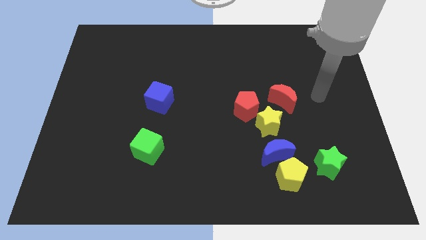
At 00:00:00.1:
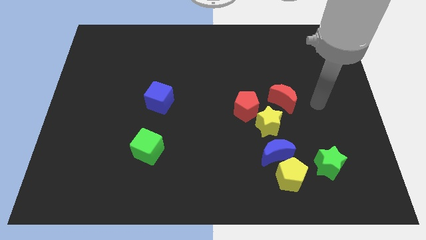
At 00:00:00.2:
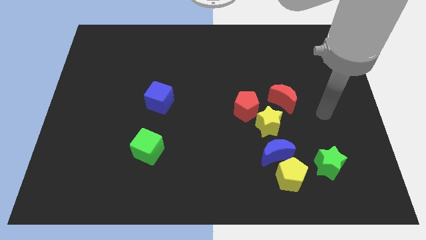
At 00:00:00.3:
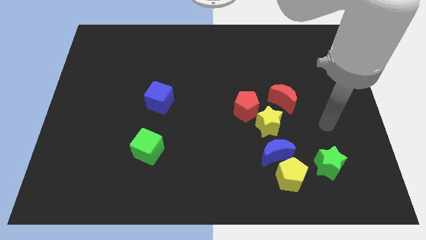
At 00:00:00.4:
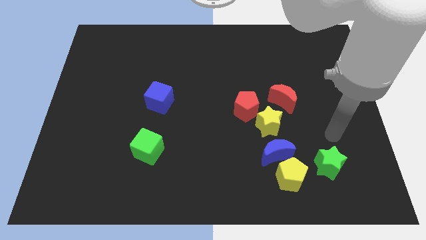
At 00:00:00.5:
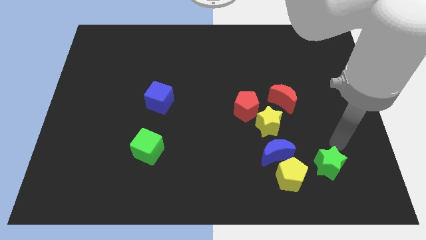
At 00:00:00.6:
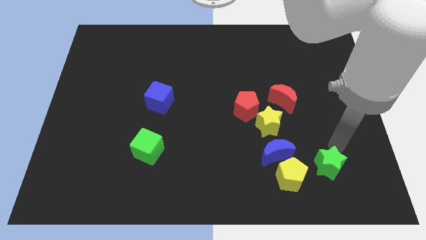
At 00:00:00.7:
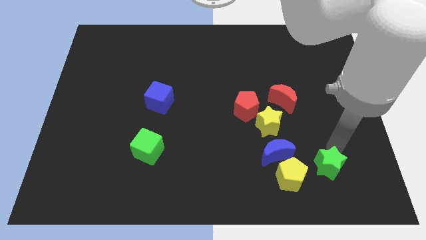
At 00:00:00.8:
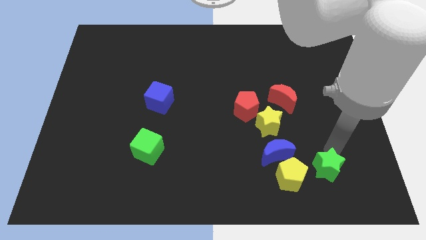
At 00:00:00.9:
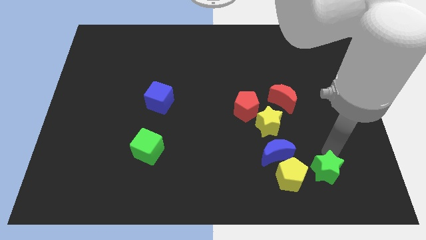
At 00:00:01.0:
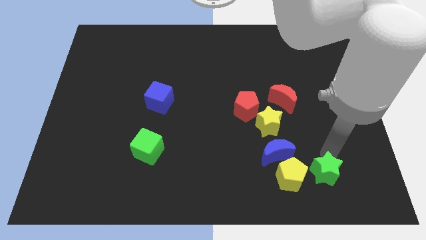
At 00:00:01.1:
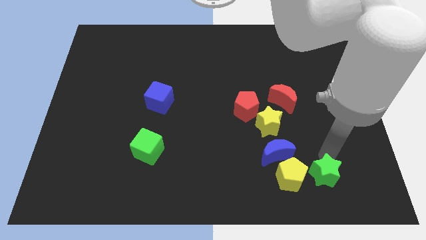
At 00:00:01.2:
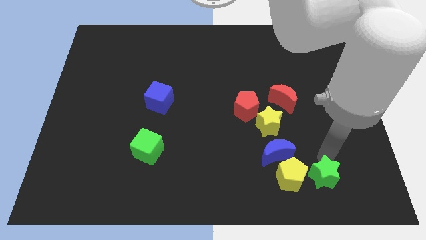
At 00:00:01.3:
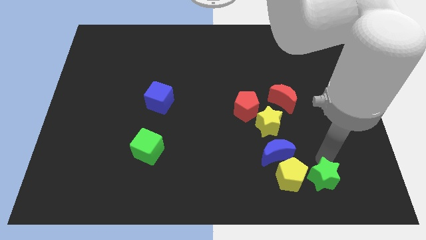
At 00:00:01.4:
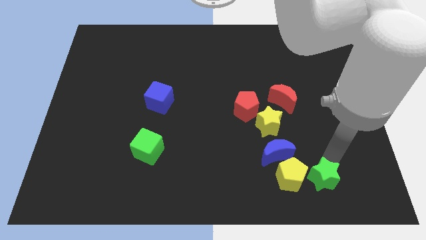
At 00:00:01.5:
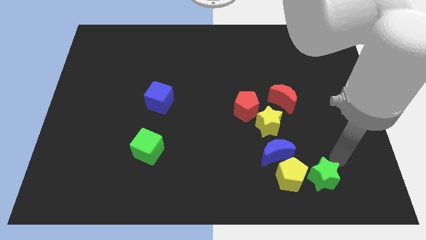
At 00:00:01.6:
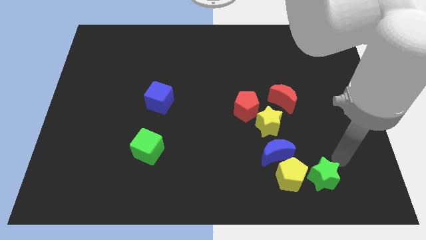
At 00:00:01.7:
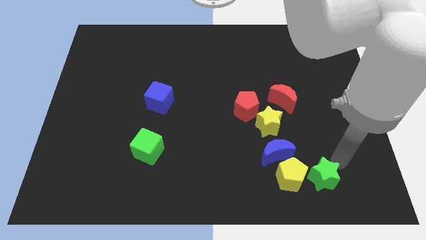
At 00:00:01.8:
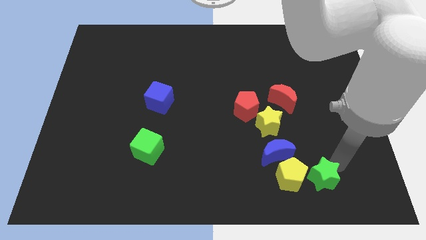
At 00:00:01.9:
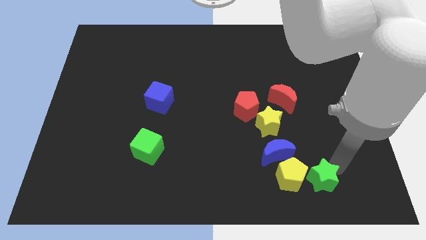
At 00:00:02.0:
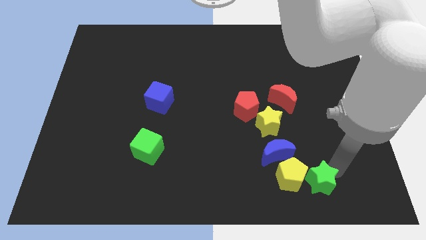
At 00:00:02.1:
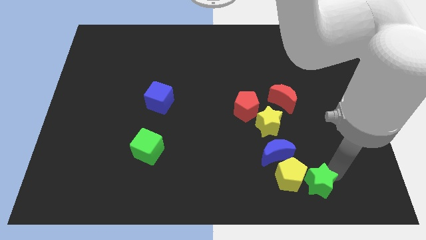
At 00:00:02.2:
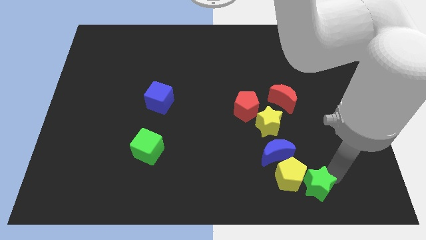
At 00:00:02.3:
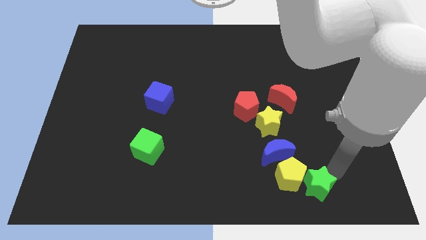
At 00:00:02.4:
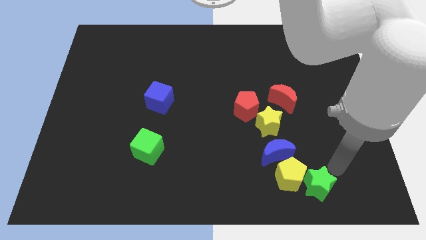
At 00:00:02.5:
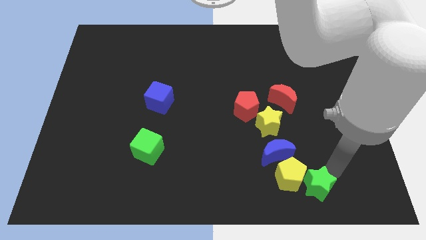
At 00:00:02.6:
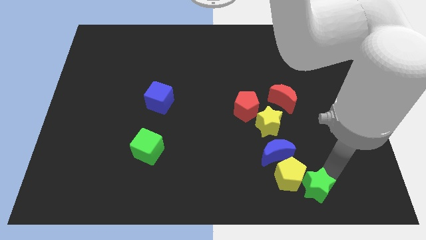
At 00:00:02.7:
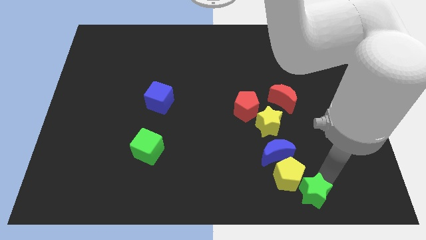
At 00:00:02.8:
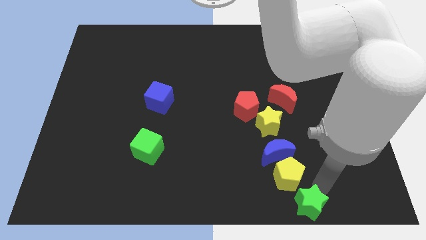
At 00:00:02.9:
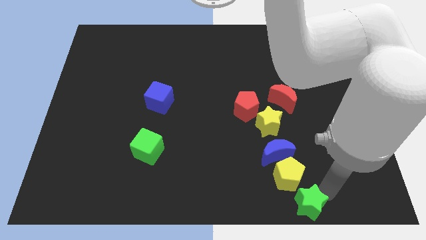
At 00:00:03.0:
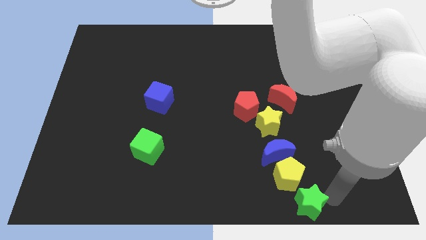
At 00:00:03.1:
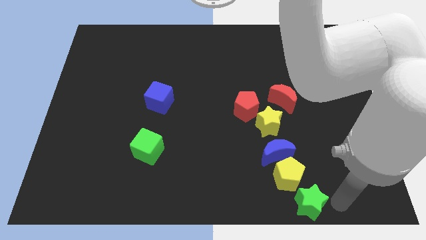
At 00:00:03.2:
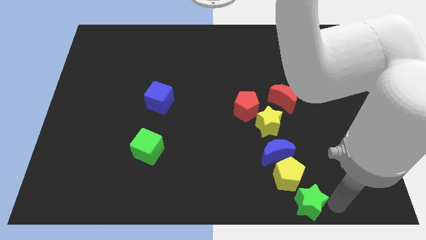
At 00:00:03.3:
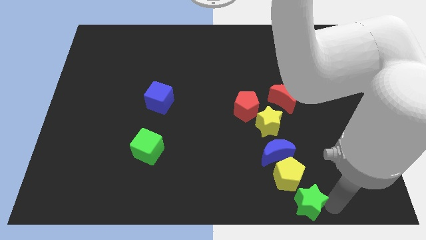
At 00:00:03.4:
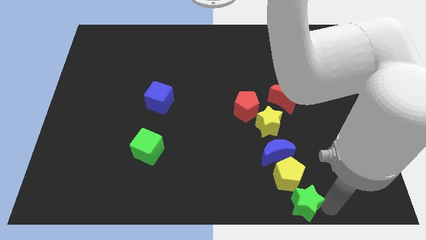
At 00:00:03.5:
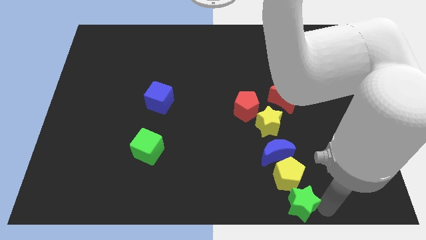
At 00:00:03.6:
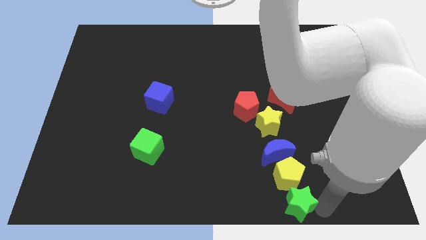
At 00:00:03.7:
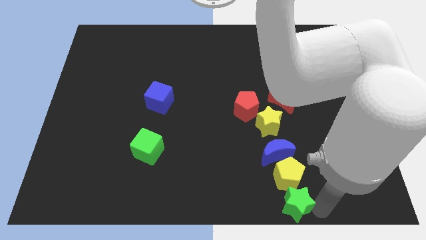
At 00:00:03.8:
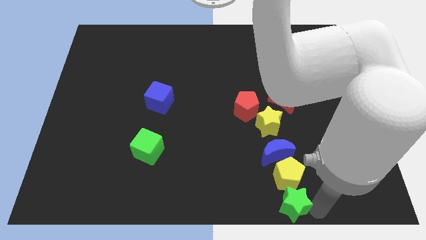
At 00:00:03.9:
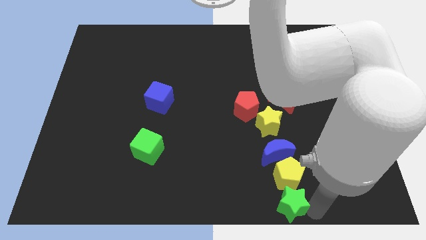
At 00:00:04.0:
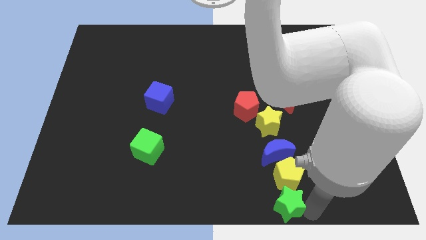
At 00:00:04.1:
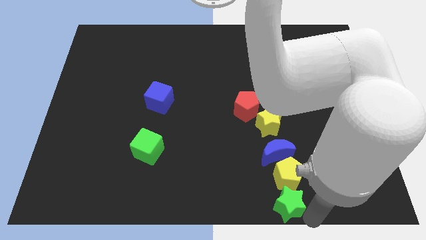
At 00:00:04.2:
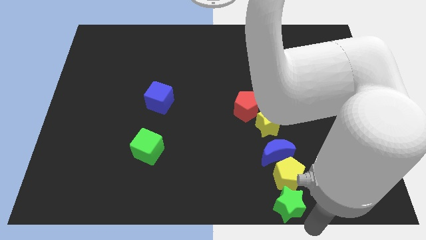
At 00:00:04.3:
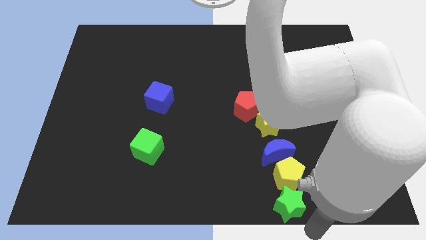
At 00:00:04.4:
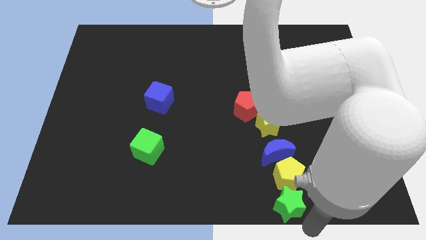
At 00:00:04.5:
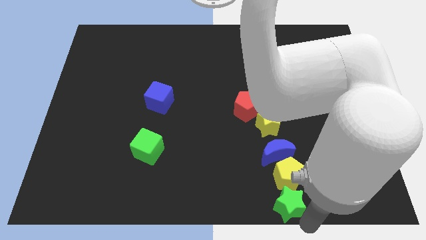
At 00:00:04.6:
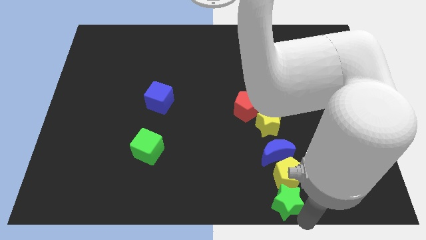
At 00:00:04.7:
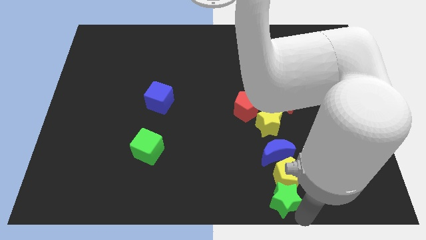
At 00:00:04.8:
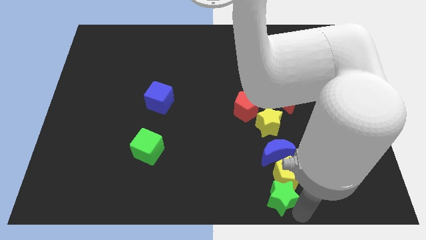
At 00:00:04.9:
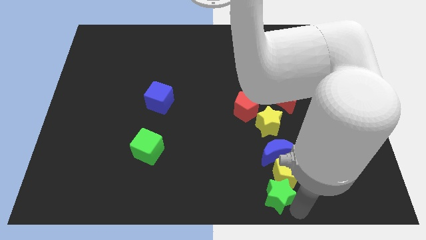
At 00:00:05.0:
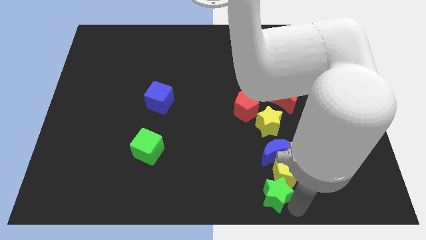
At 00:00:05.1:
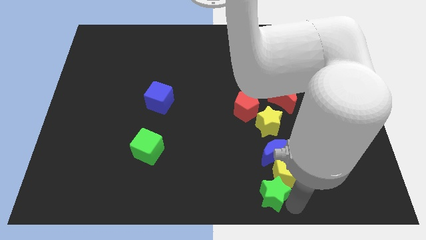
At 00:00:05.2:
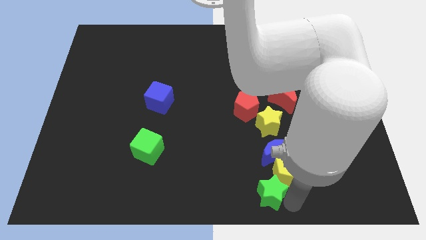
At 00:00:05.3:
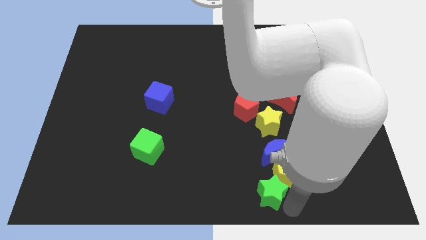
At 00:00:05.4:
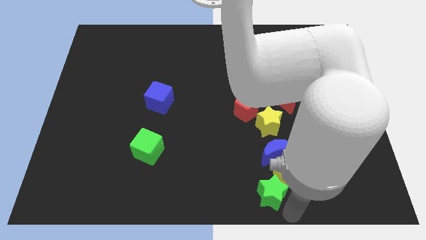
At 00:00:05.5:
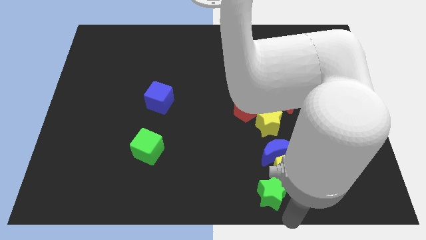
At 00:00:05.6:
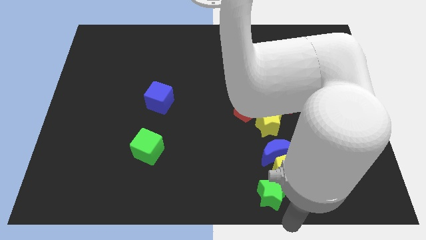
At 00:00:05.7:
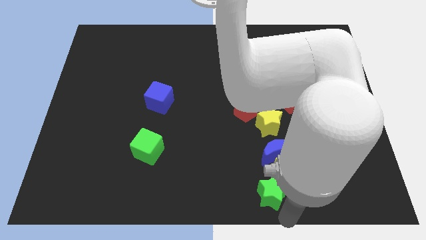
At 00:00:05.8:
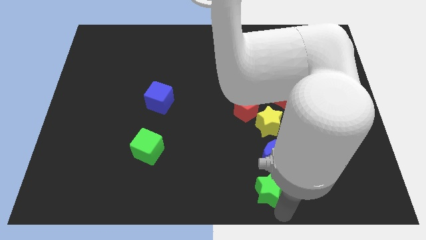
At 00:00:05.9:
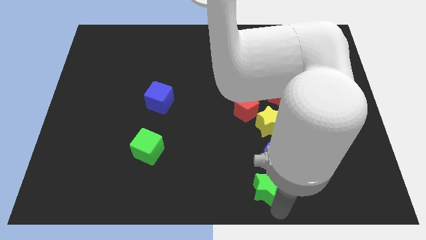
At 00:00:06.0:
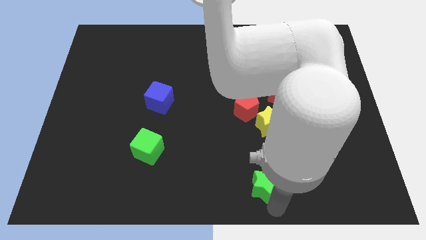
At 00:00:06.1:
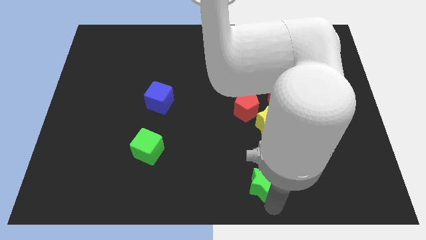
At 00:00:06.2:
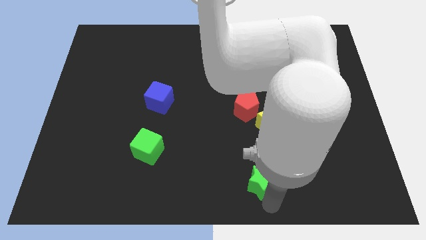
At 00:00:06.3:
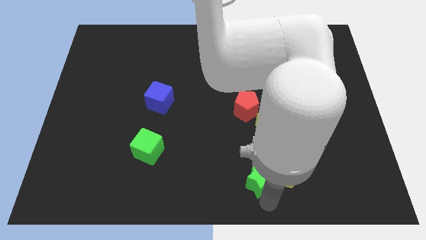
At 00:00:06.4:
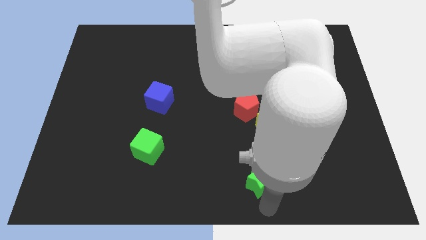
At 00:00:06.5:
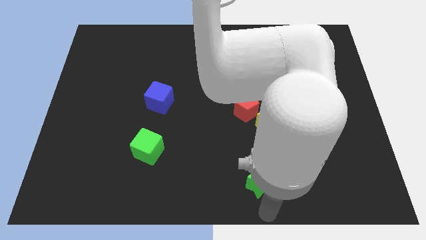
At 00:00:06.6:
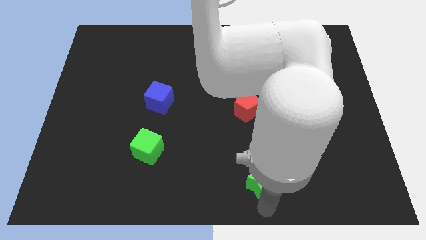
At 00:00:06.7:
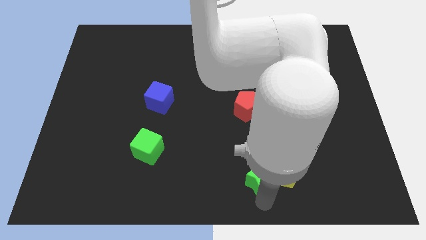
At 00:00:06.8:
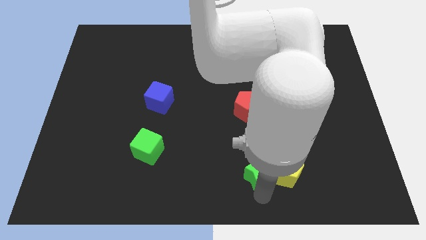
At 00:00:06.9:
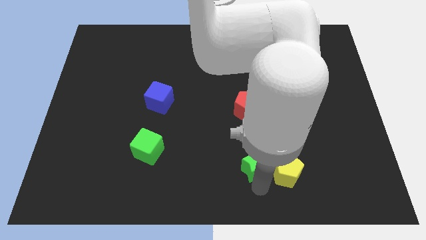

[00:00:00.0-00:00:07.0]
move the green star below the red pentagon
